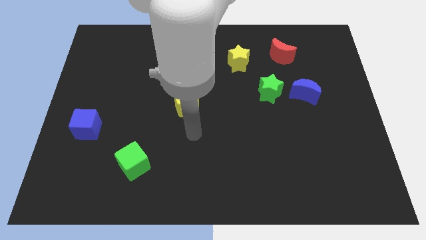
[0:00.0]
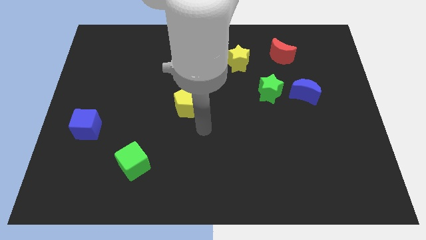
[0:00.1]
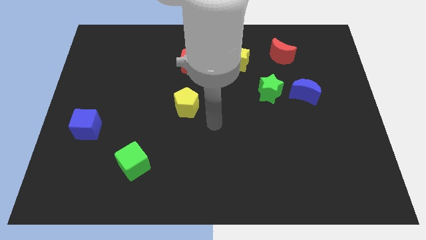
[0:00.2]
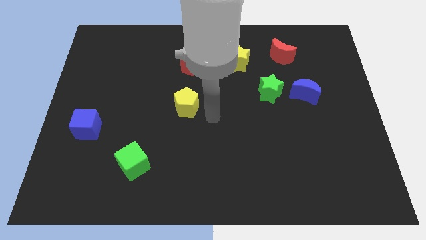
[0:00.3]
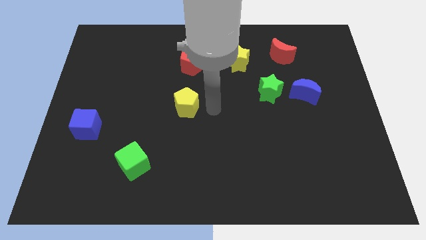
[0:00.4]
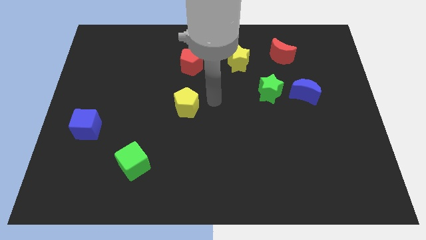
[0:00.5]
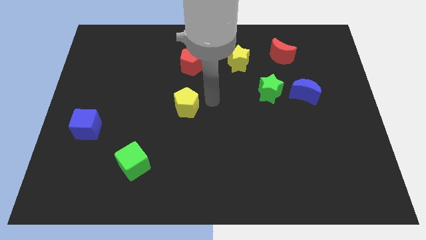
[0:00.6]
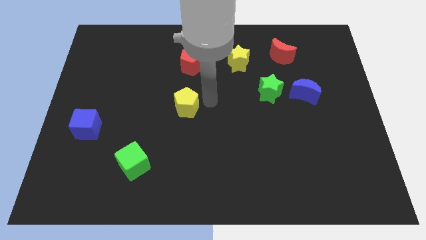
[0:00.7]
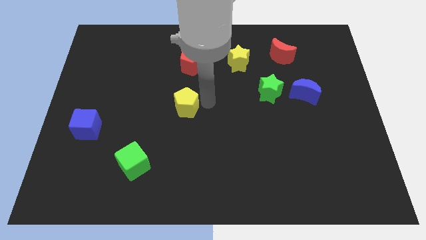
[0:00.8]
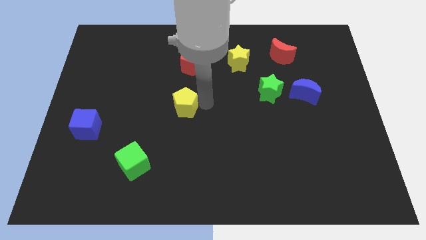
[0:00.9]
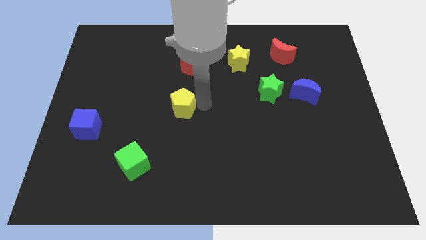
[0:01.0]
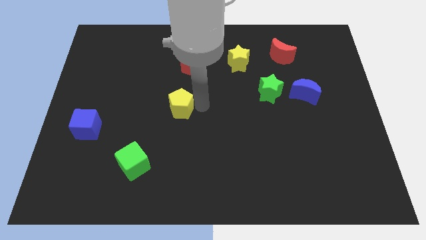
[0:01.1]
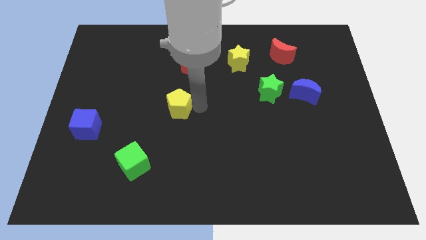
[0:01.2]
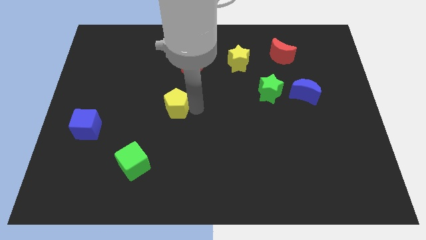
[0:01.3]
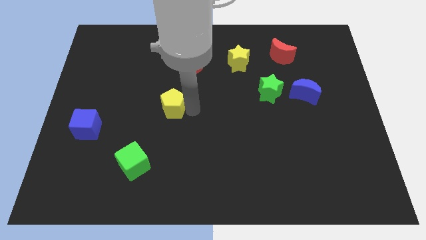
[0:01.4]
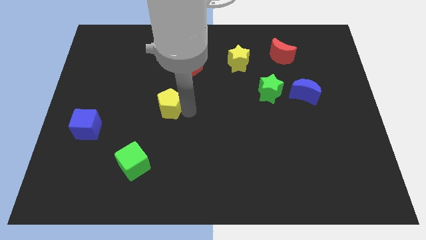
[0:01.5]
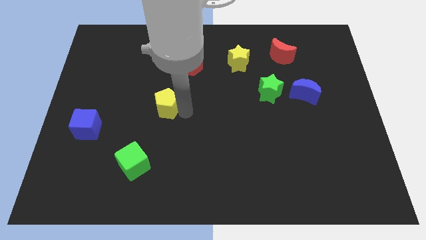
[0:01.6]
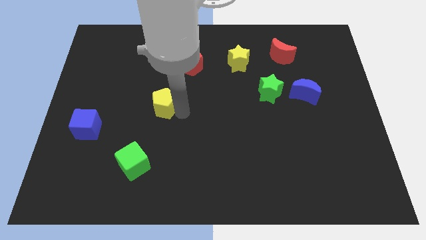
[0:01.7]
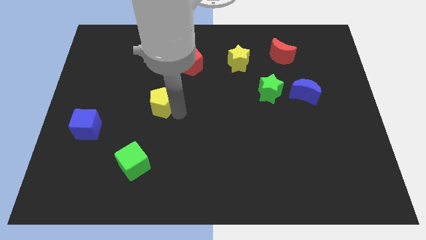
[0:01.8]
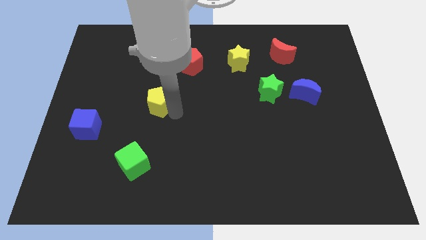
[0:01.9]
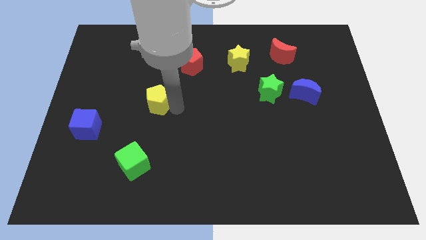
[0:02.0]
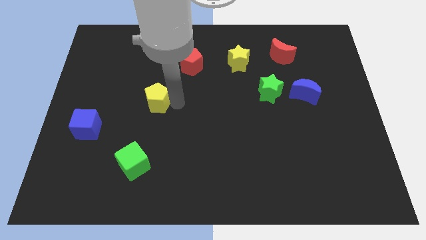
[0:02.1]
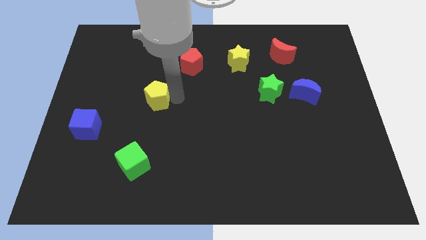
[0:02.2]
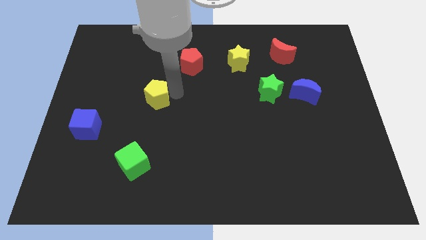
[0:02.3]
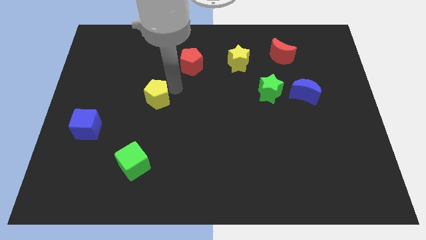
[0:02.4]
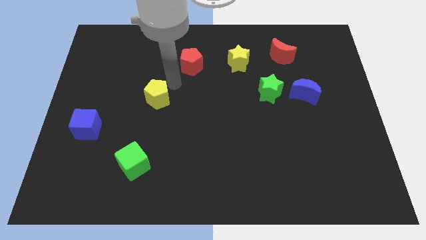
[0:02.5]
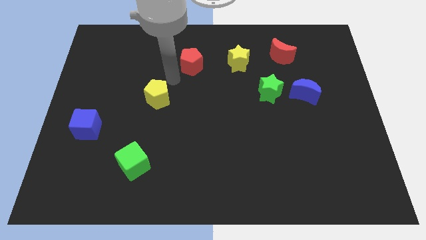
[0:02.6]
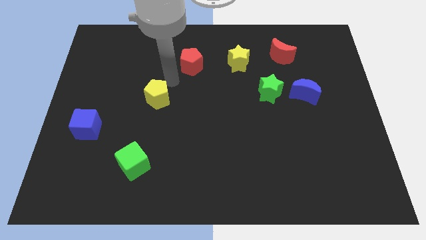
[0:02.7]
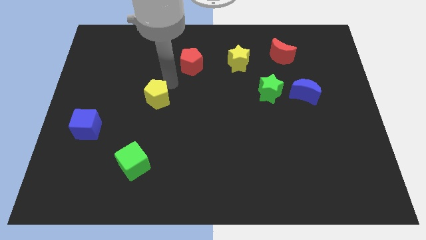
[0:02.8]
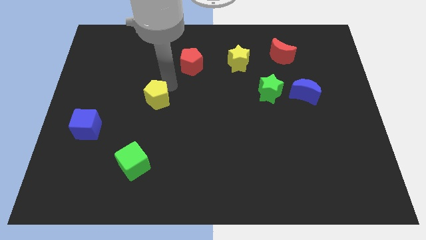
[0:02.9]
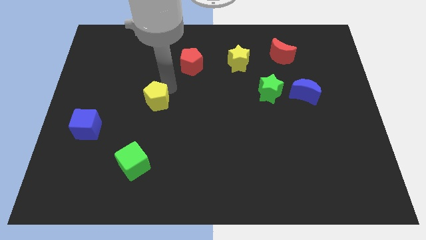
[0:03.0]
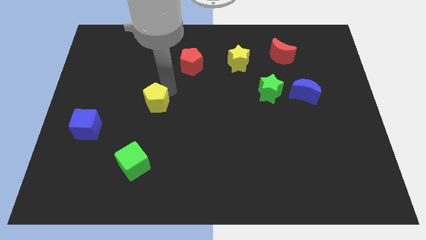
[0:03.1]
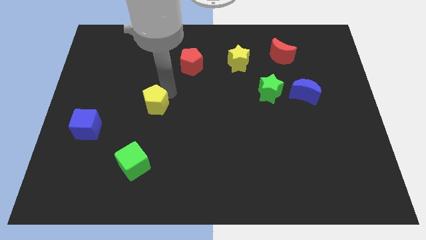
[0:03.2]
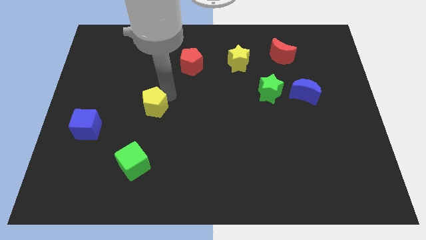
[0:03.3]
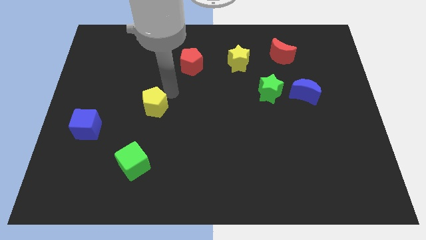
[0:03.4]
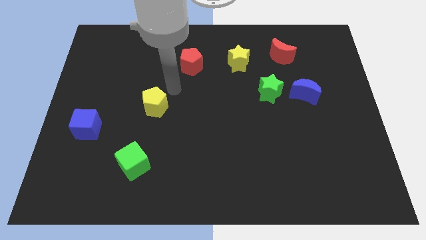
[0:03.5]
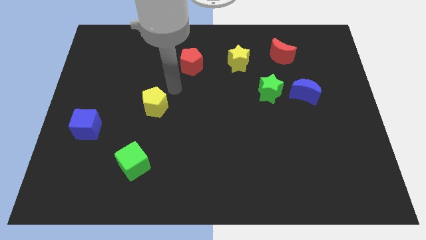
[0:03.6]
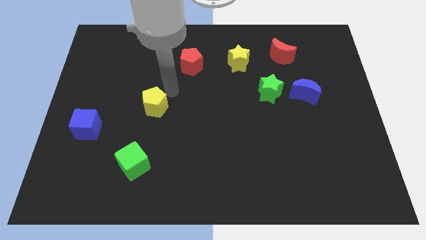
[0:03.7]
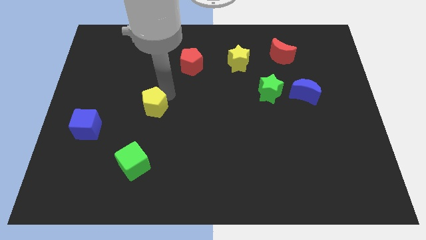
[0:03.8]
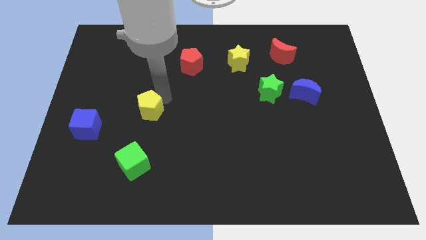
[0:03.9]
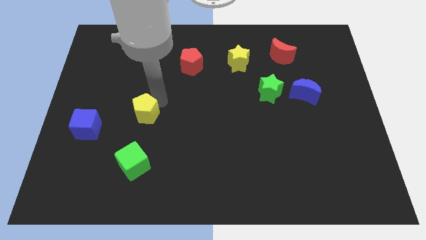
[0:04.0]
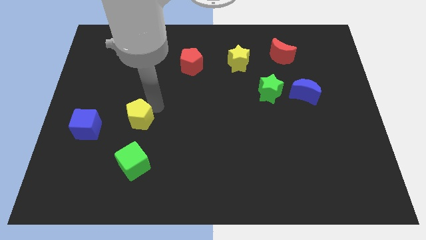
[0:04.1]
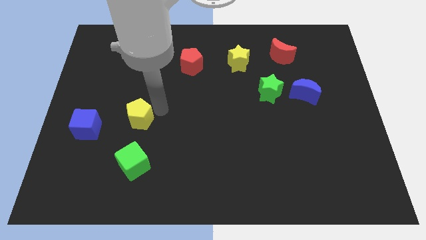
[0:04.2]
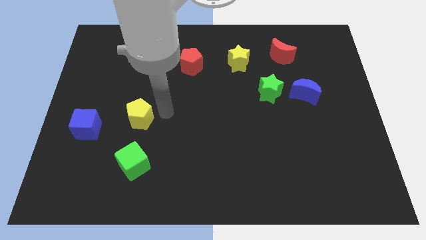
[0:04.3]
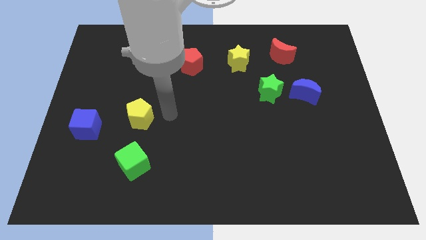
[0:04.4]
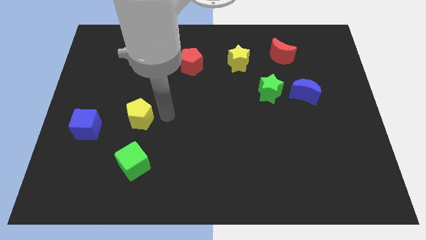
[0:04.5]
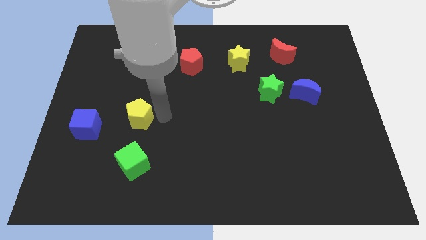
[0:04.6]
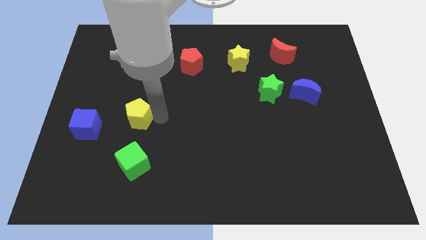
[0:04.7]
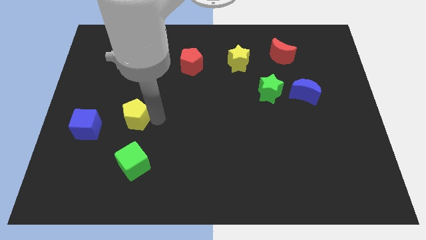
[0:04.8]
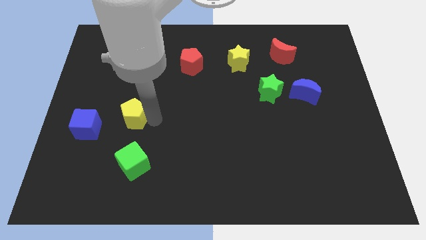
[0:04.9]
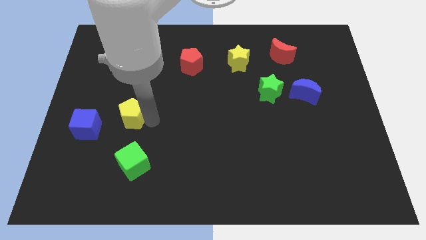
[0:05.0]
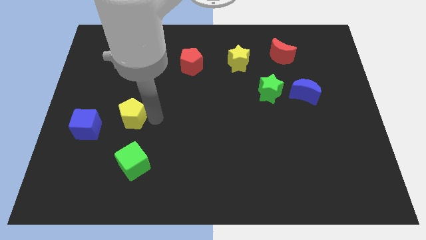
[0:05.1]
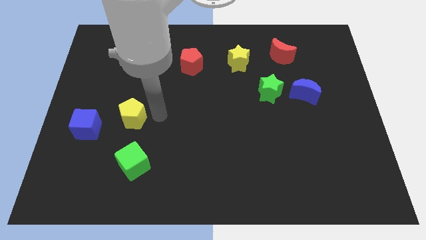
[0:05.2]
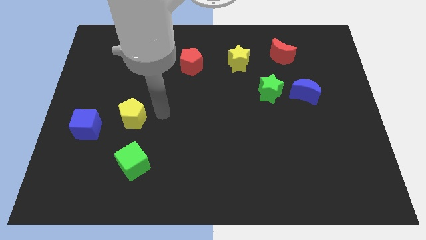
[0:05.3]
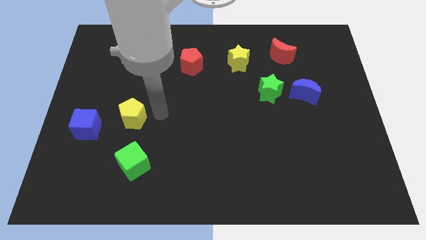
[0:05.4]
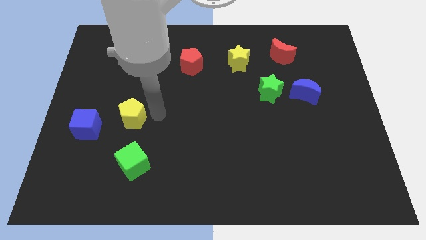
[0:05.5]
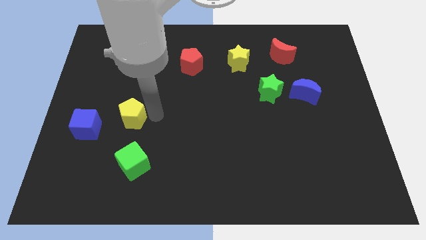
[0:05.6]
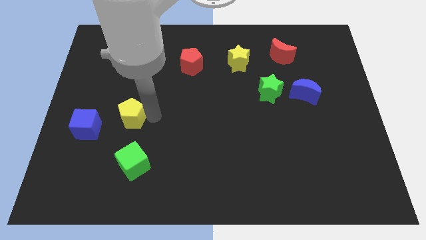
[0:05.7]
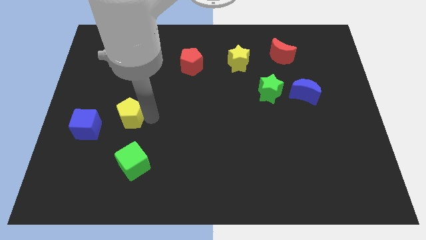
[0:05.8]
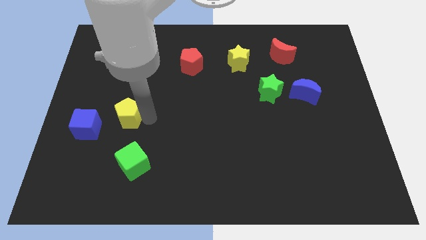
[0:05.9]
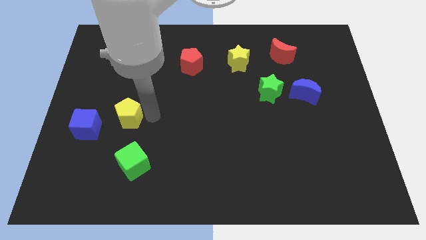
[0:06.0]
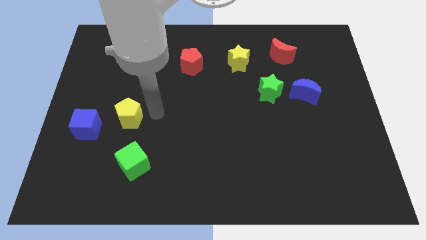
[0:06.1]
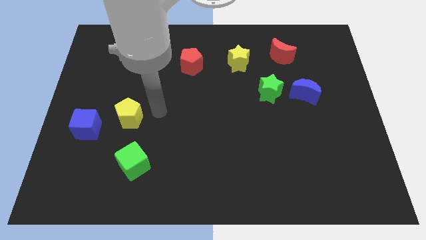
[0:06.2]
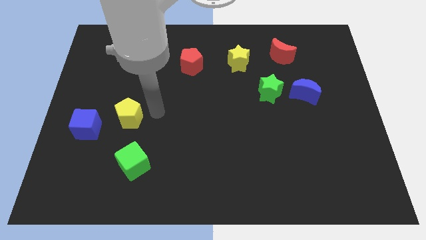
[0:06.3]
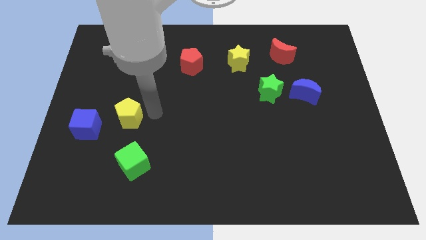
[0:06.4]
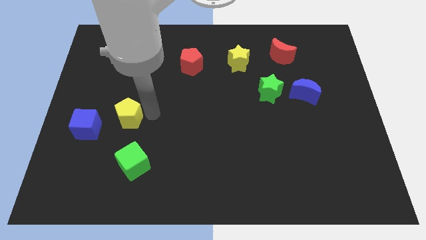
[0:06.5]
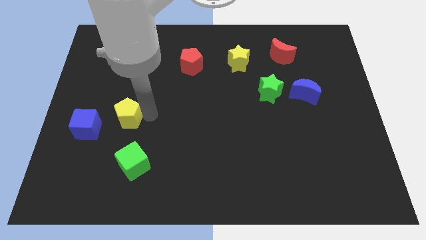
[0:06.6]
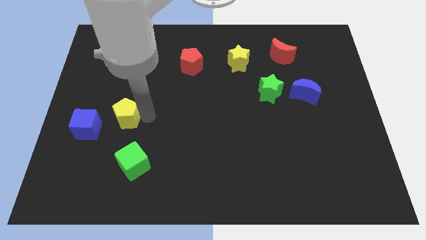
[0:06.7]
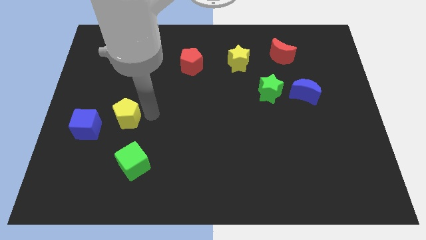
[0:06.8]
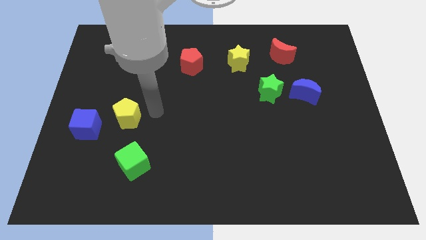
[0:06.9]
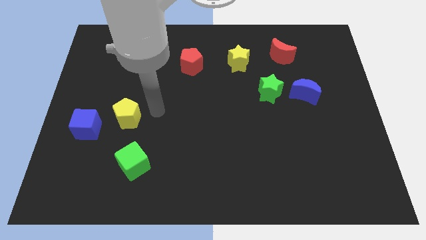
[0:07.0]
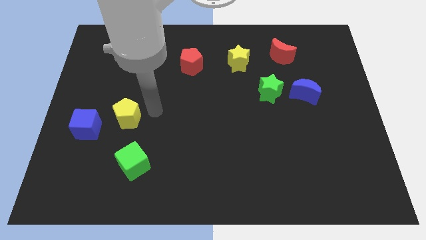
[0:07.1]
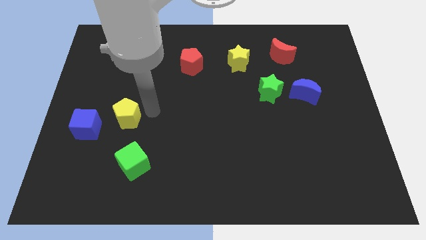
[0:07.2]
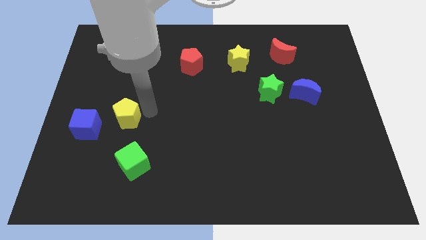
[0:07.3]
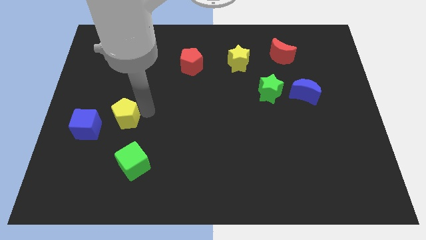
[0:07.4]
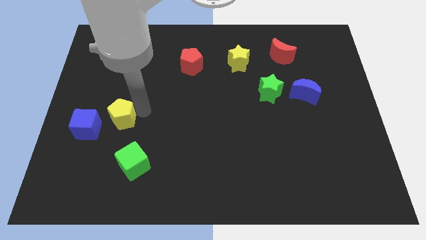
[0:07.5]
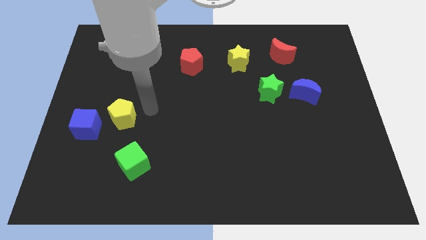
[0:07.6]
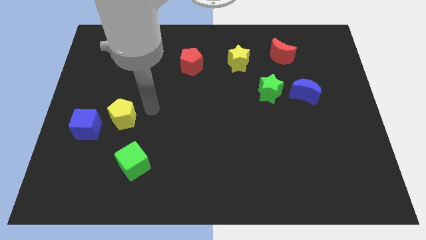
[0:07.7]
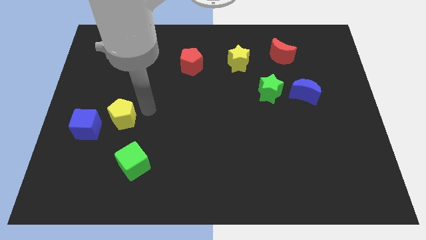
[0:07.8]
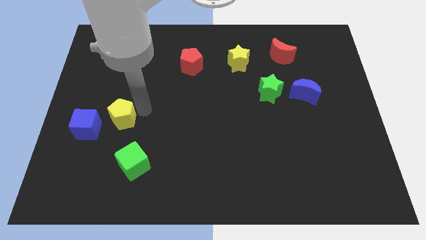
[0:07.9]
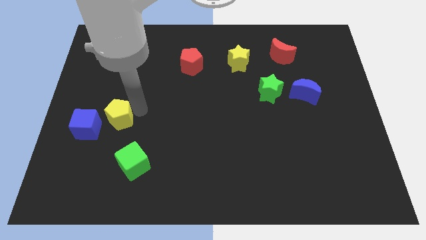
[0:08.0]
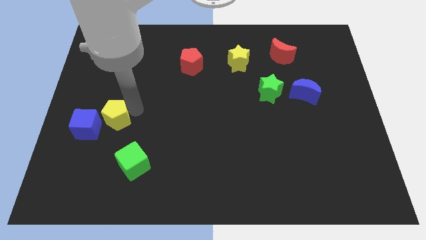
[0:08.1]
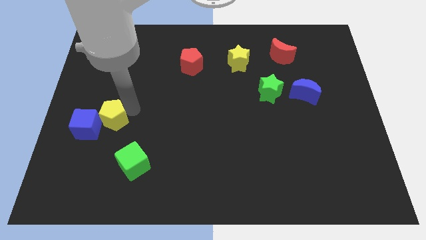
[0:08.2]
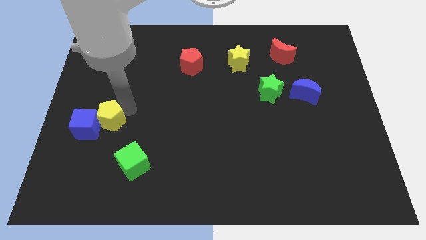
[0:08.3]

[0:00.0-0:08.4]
push the yellow pentagon to the blue cube
